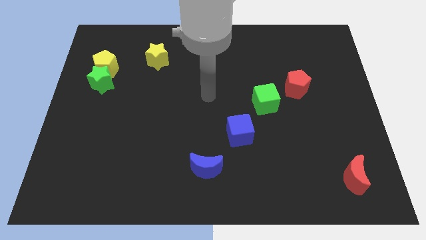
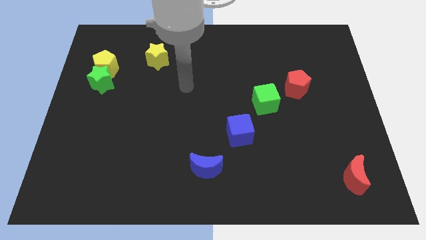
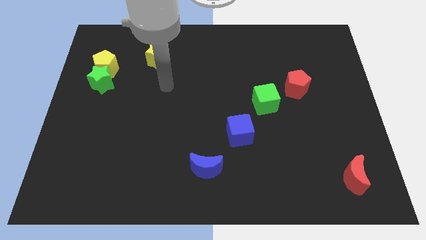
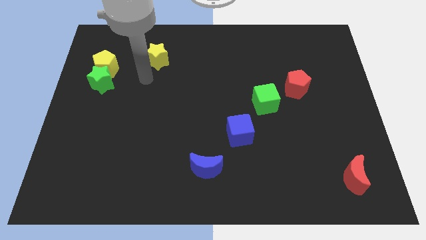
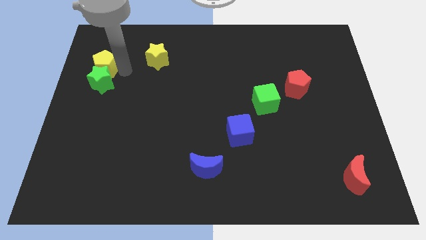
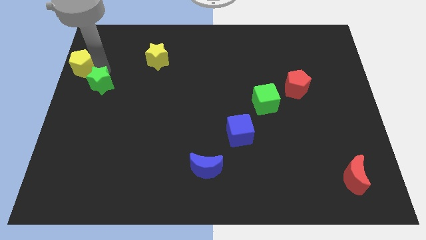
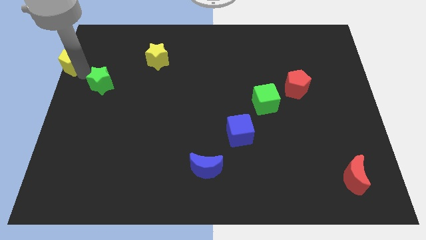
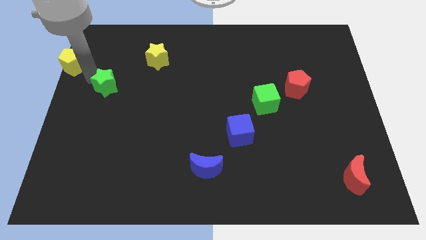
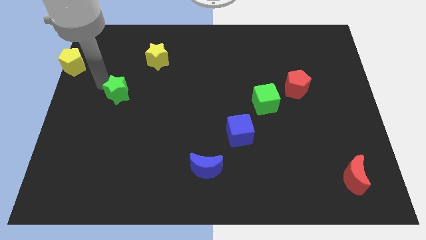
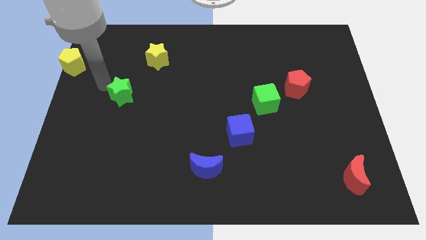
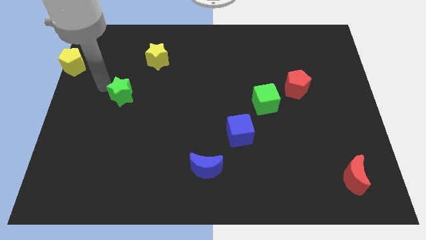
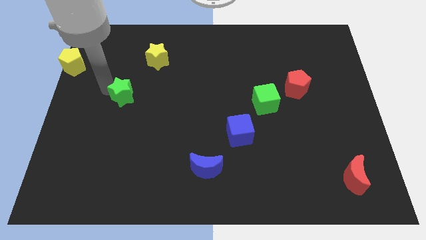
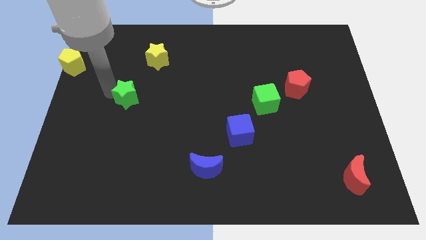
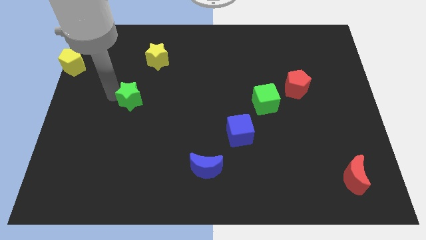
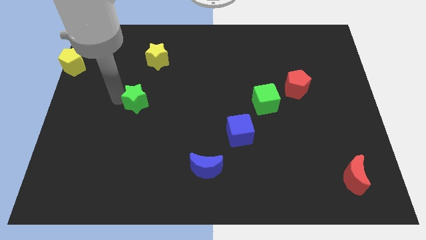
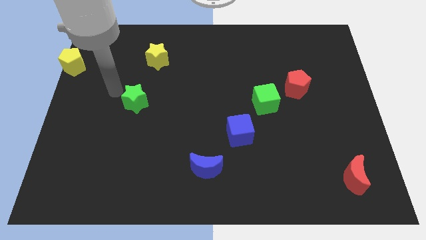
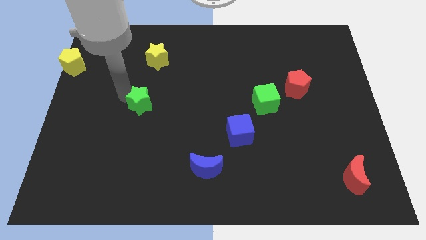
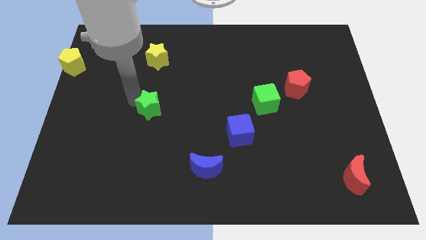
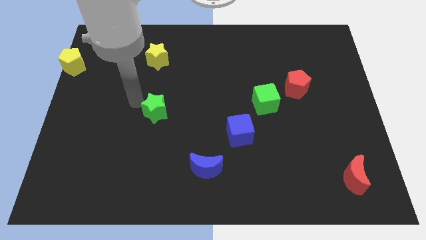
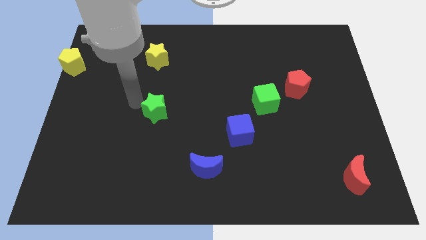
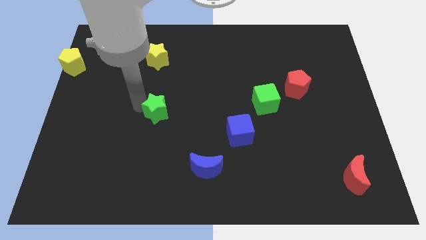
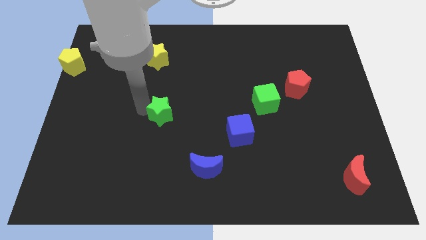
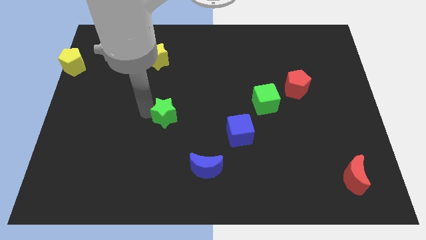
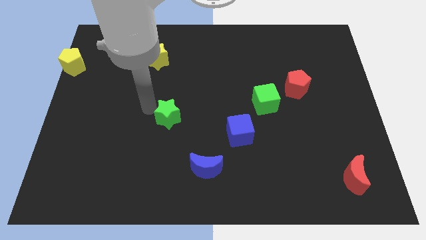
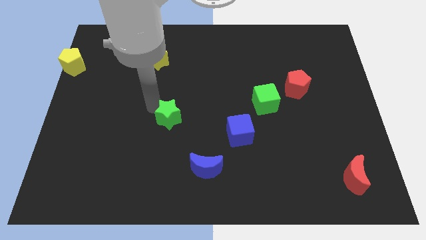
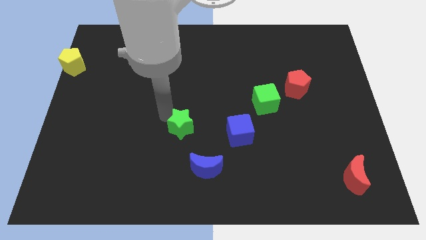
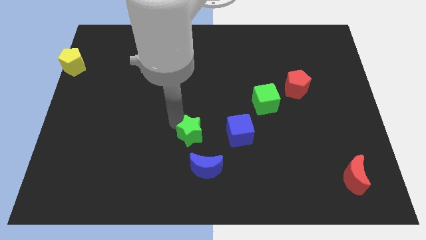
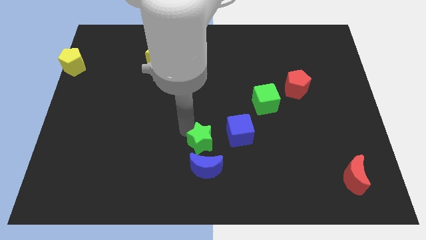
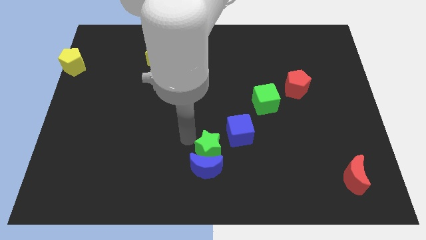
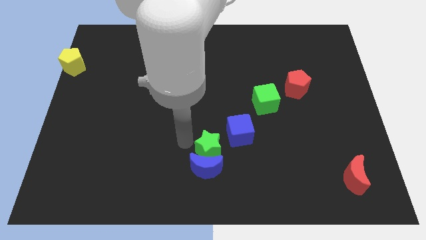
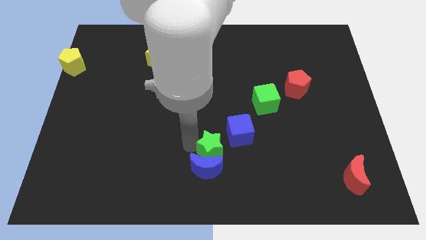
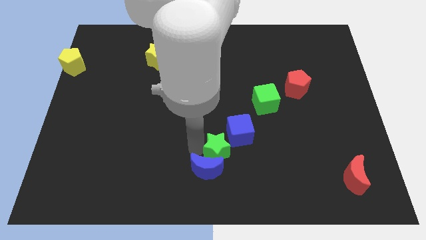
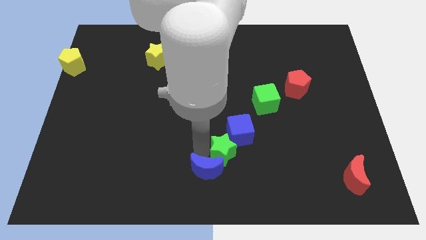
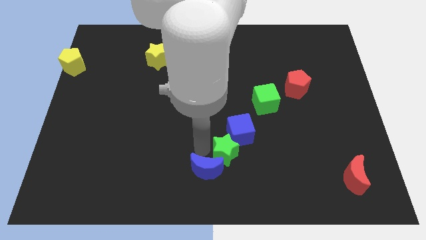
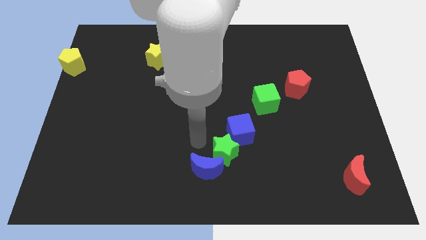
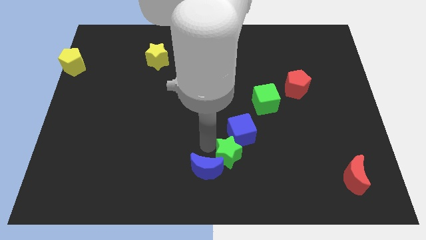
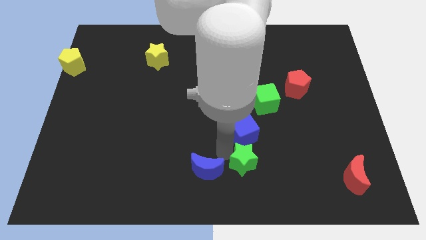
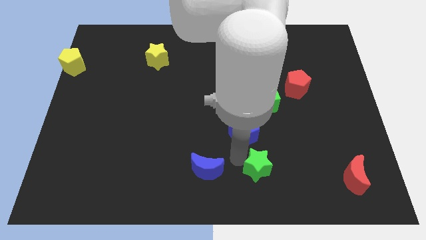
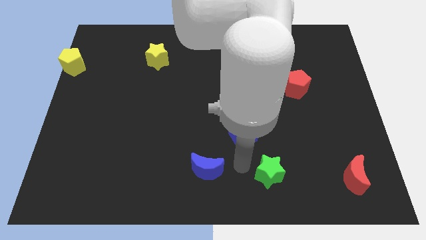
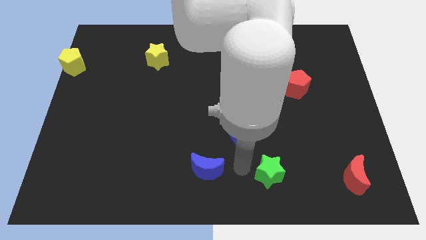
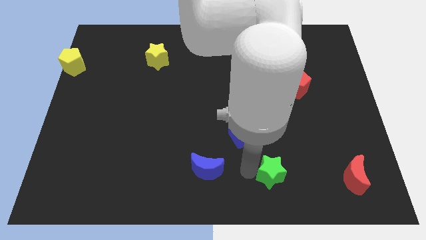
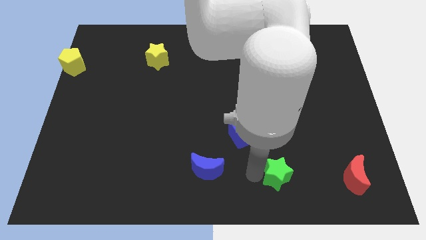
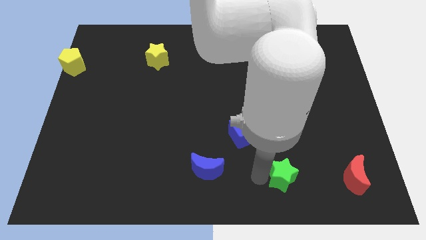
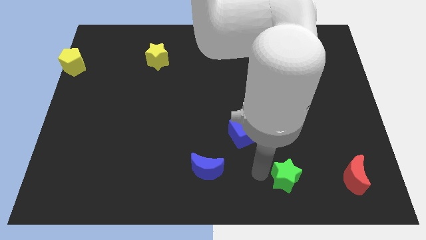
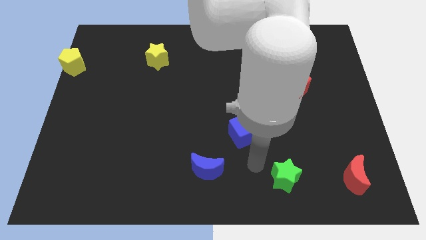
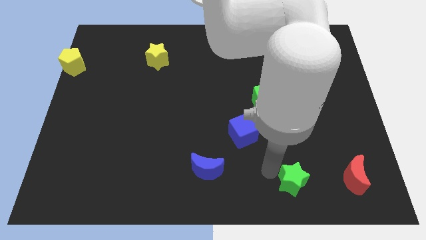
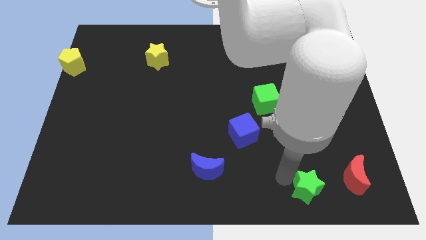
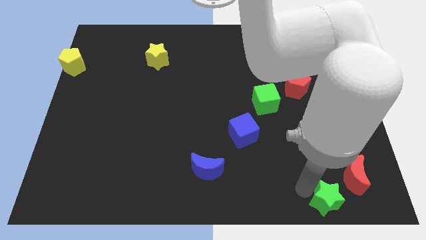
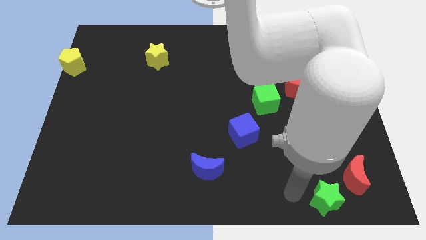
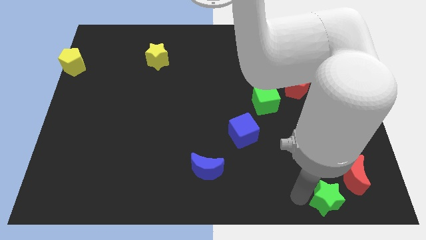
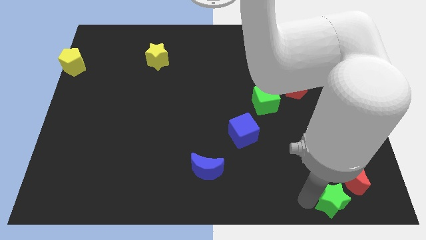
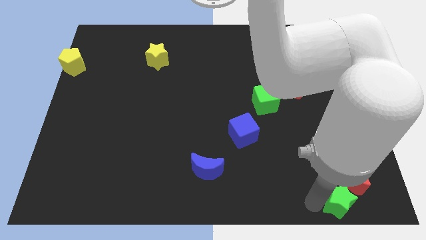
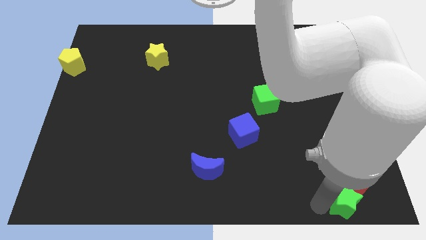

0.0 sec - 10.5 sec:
put the green star to the bottom right of the board
